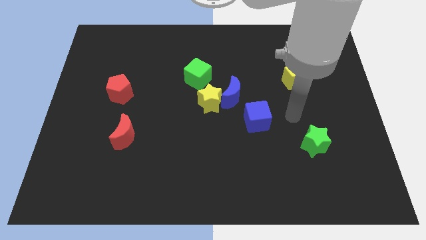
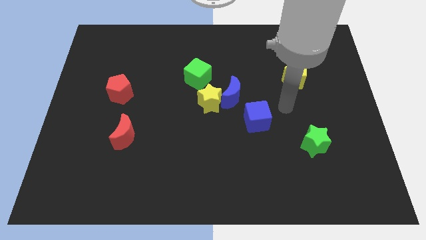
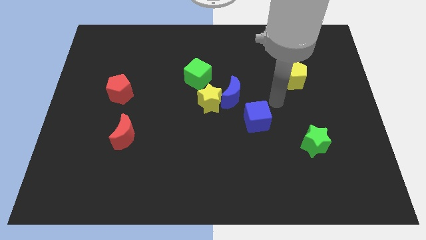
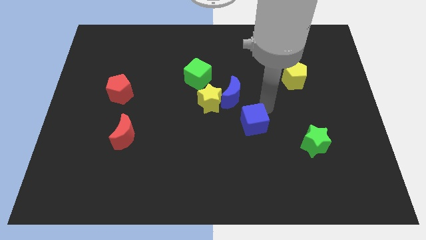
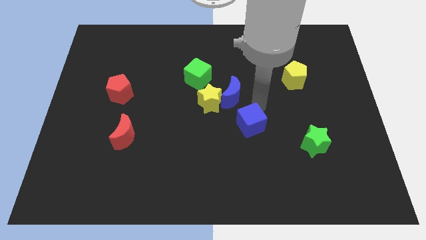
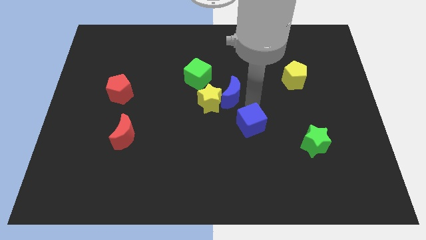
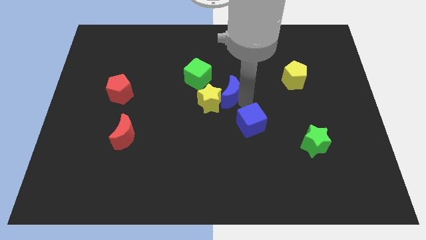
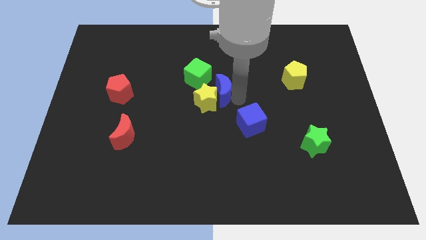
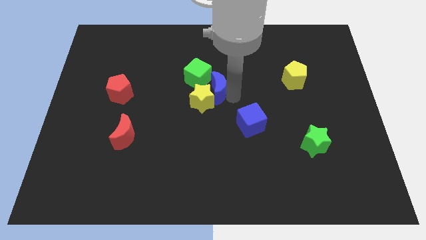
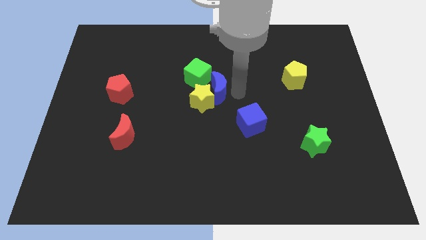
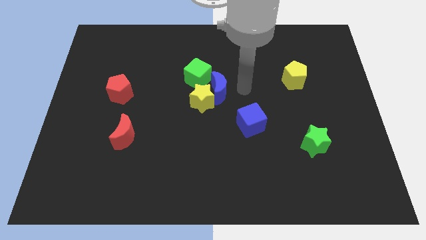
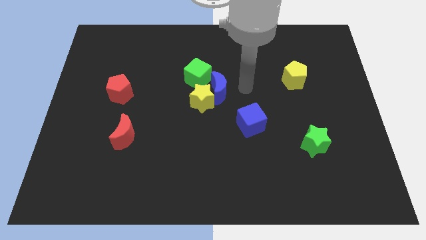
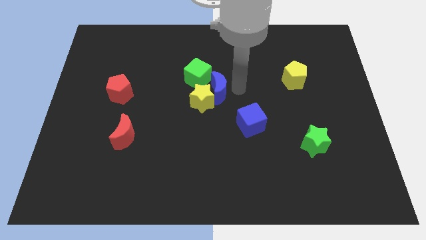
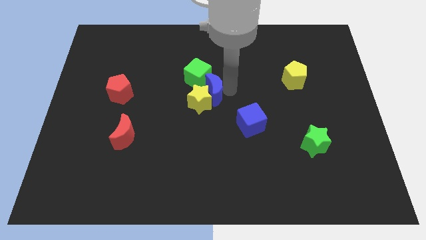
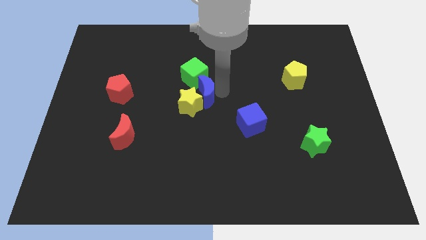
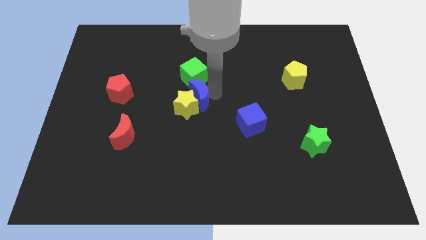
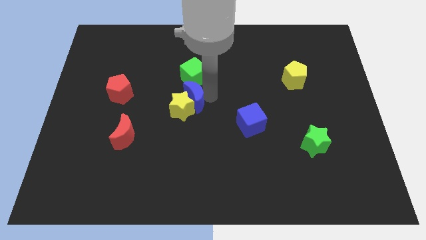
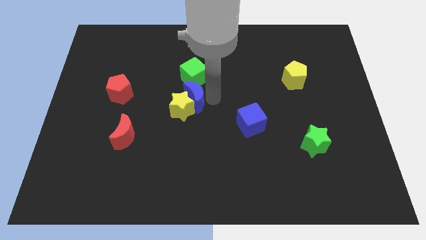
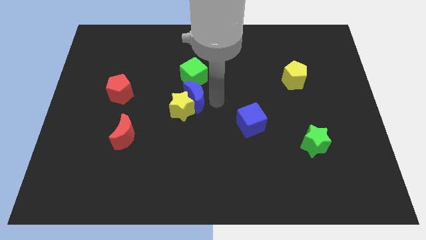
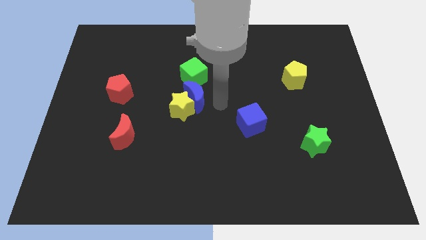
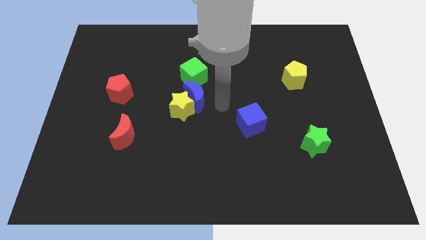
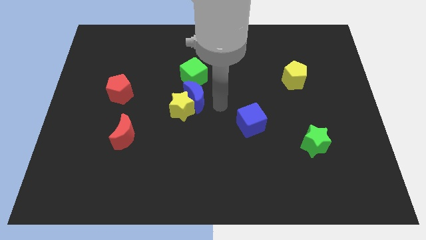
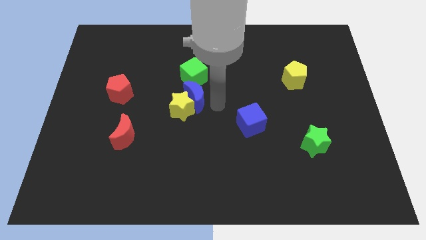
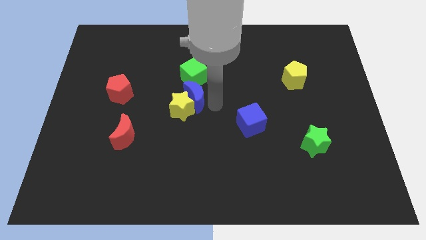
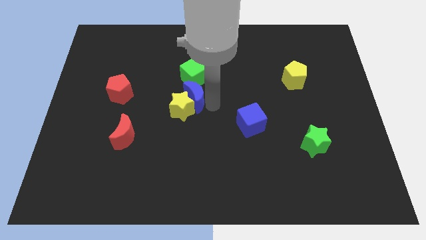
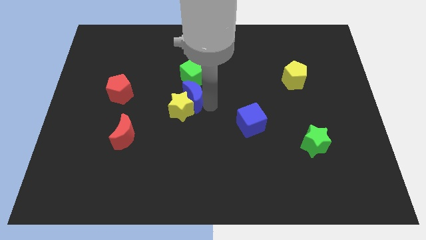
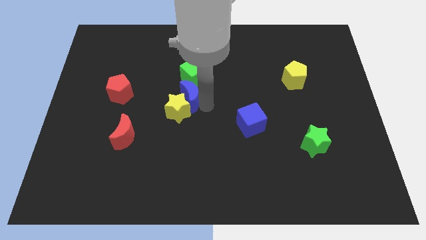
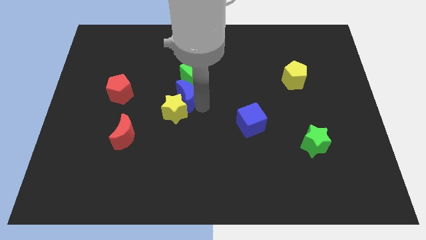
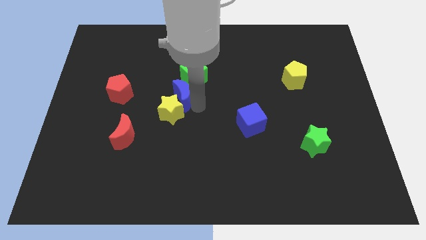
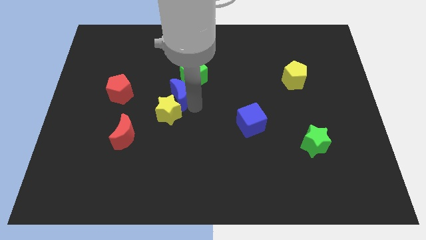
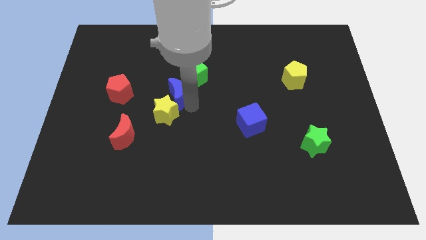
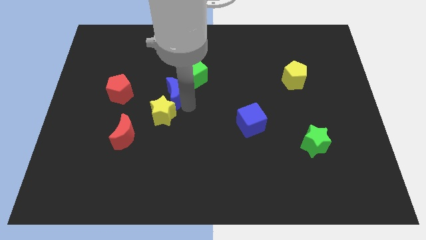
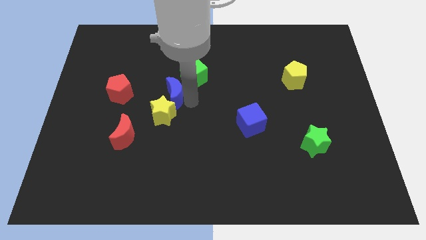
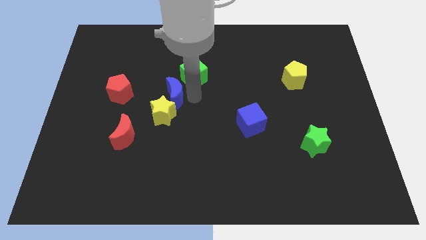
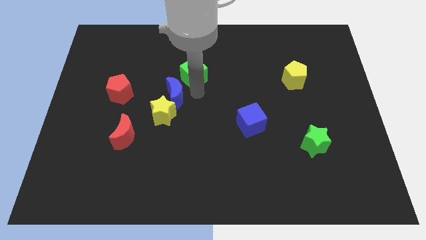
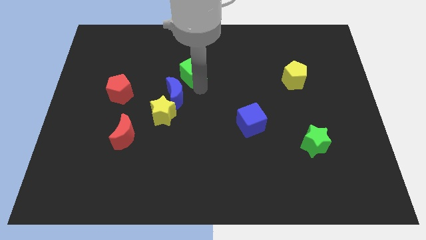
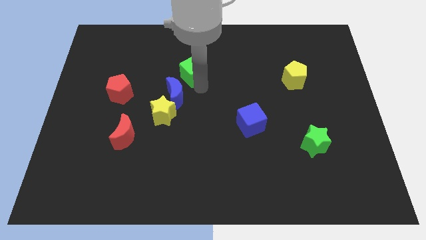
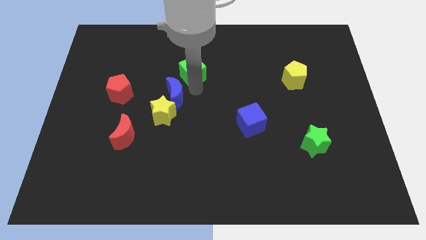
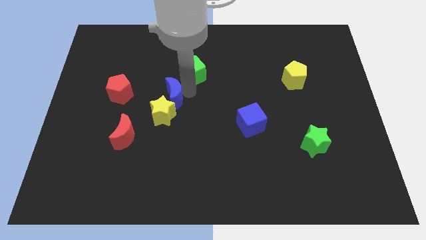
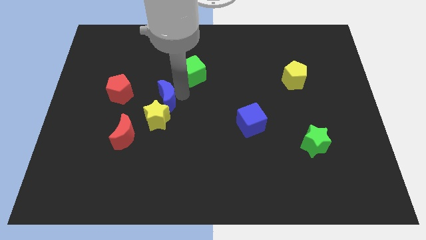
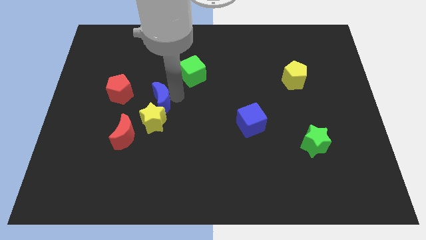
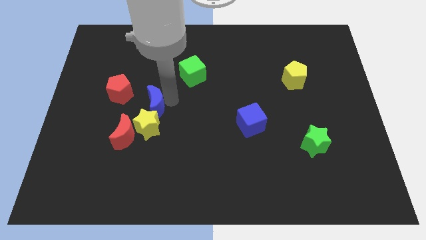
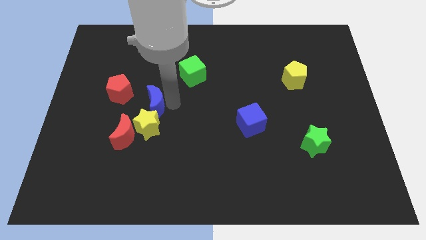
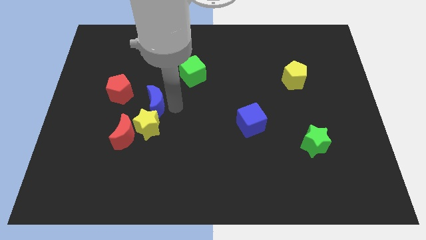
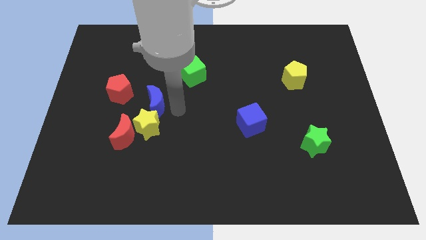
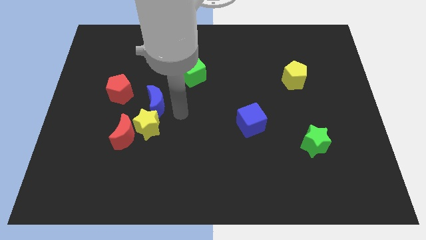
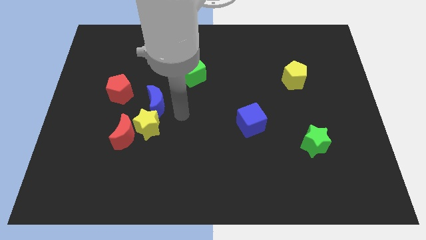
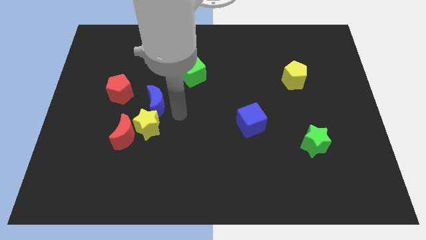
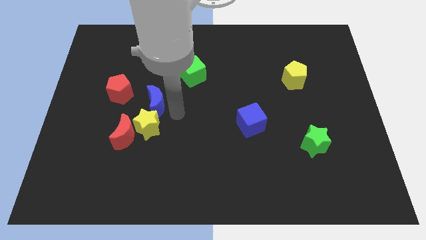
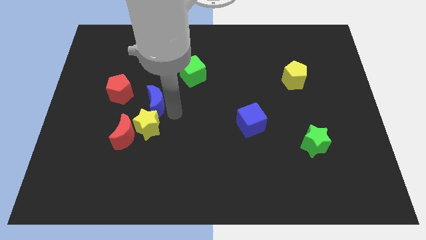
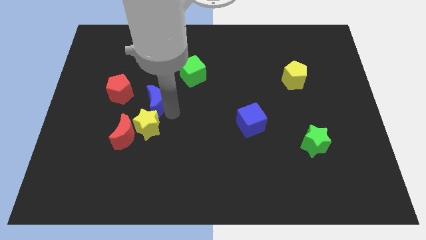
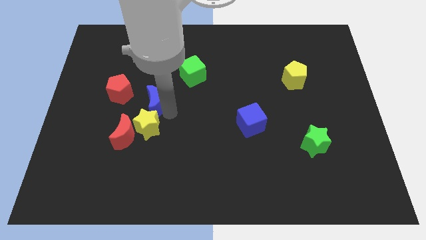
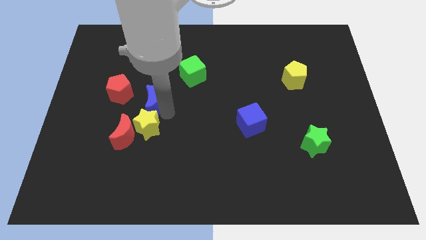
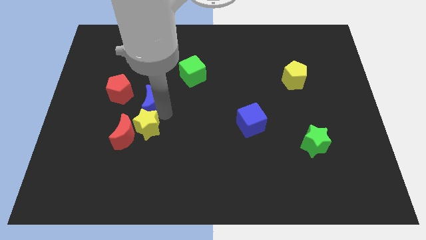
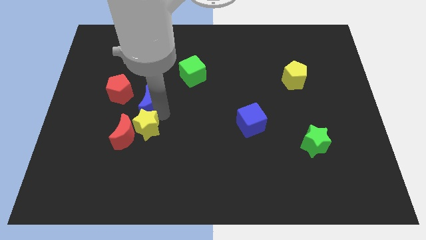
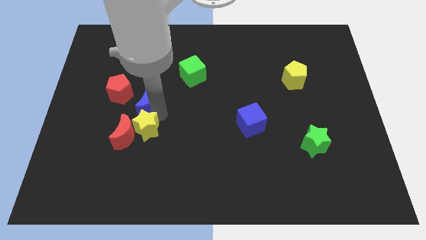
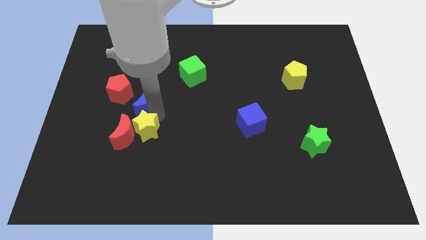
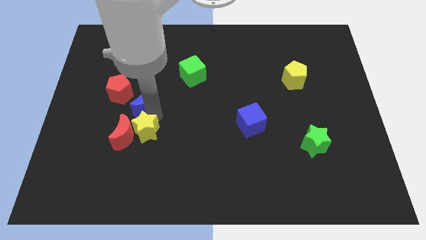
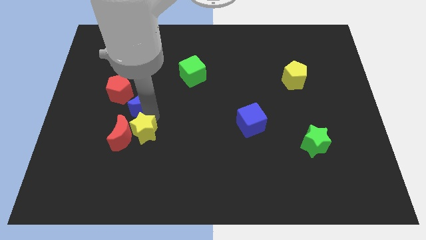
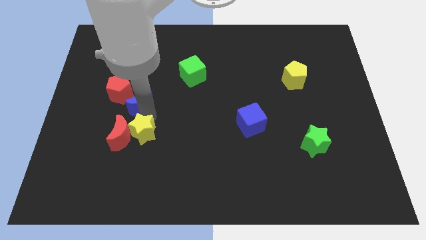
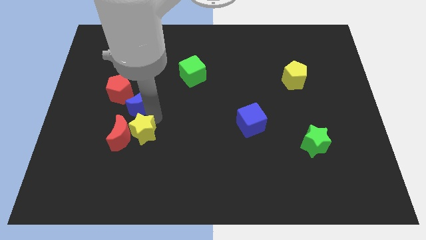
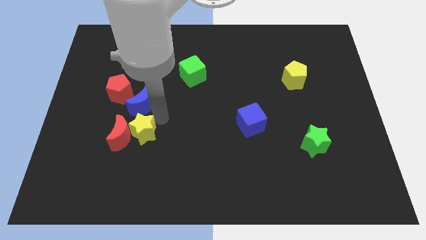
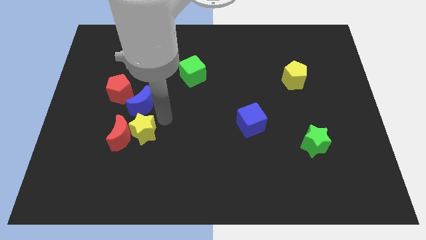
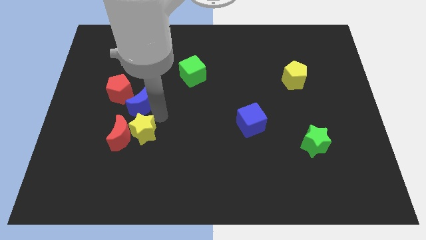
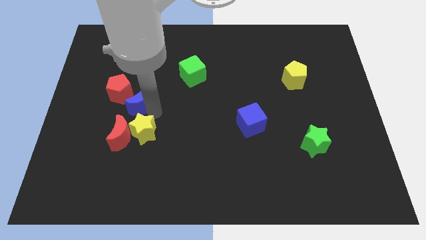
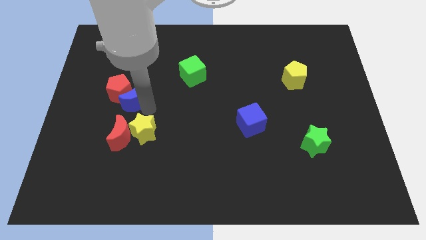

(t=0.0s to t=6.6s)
move the blue moon close to the red pentagon
